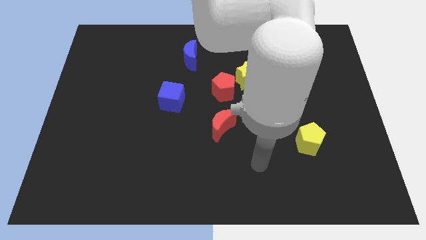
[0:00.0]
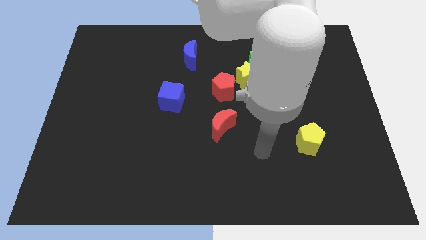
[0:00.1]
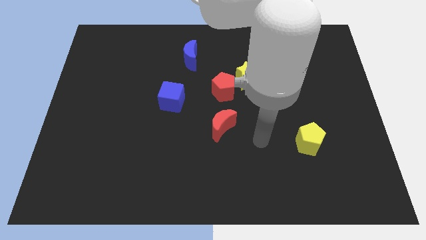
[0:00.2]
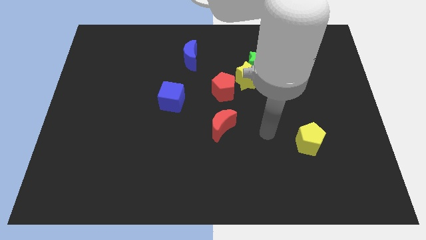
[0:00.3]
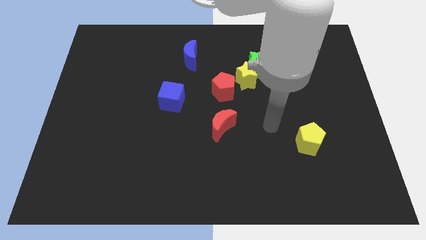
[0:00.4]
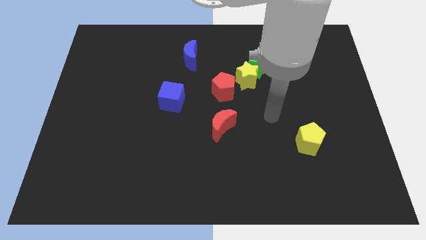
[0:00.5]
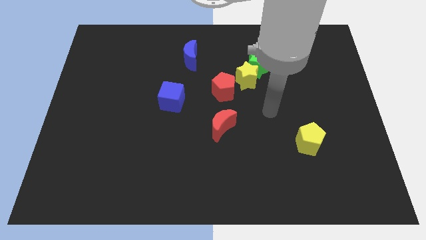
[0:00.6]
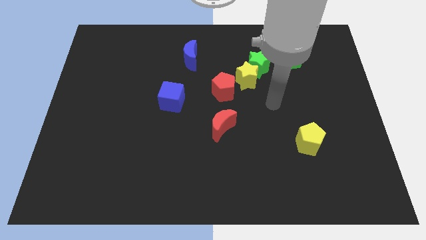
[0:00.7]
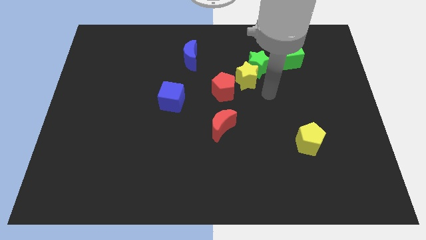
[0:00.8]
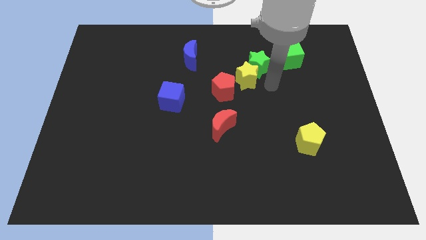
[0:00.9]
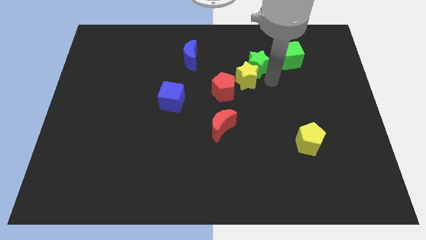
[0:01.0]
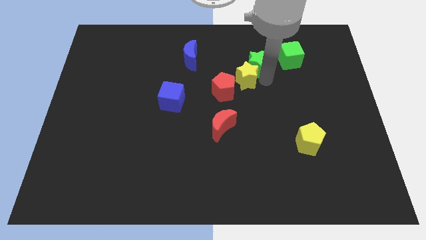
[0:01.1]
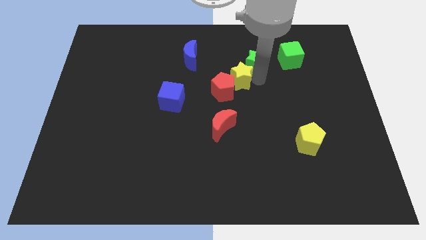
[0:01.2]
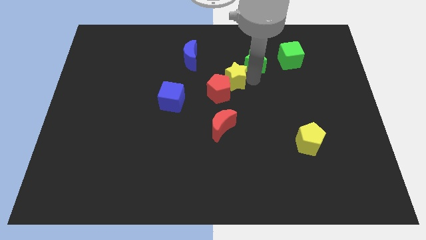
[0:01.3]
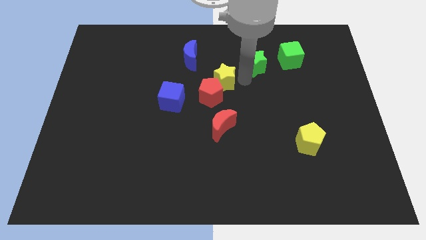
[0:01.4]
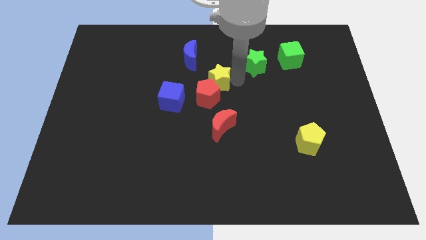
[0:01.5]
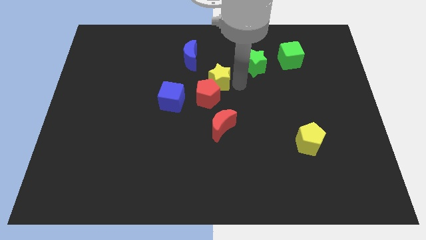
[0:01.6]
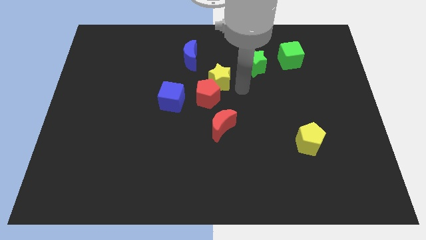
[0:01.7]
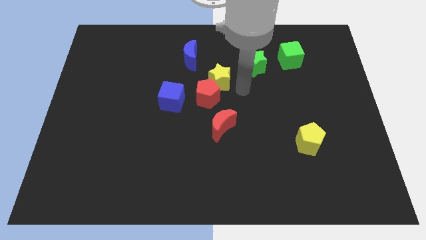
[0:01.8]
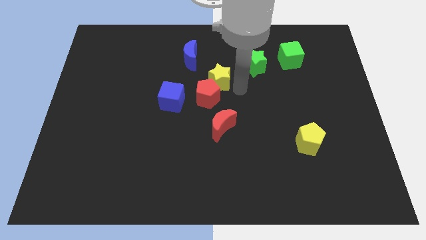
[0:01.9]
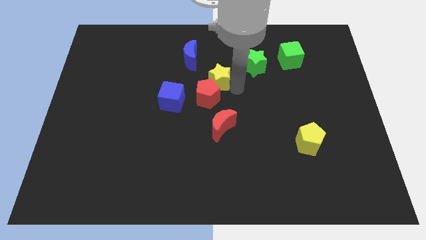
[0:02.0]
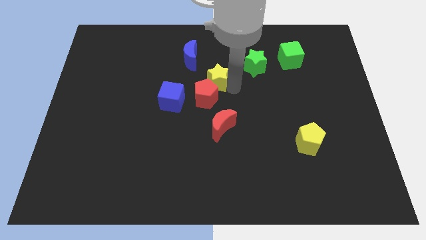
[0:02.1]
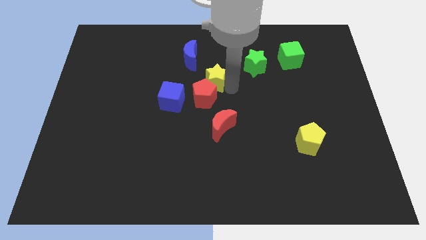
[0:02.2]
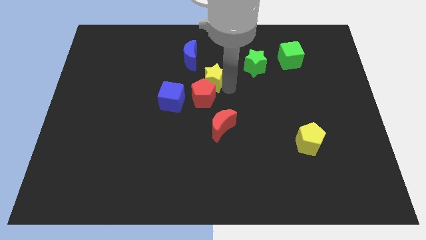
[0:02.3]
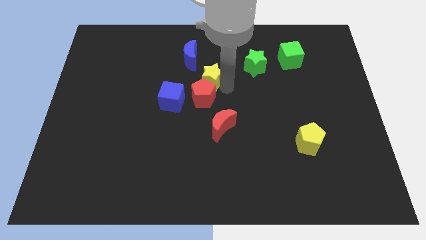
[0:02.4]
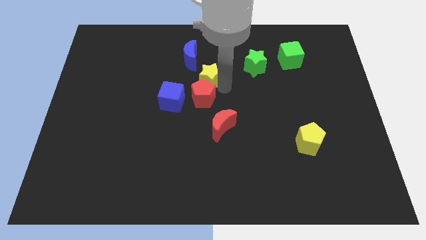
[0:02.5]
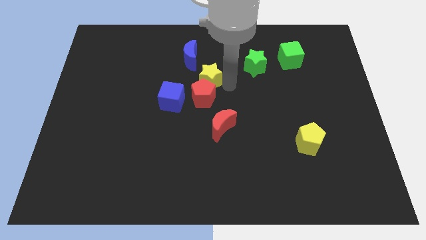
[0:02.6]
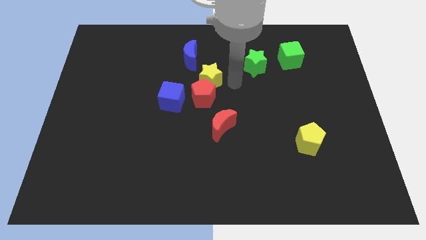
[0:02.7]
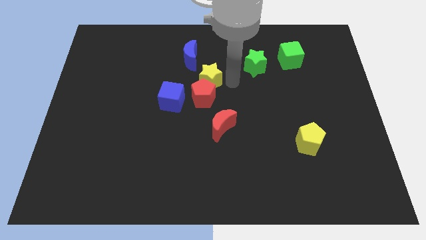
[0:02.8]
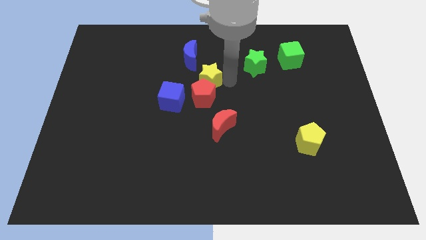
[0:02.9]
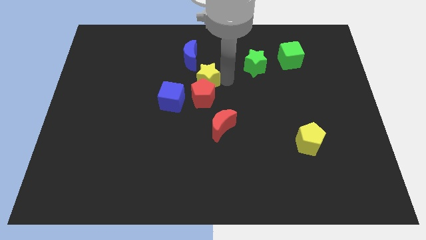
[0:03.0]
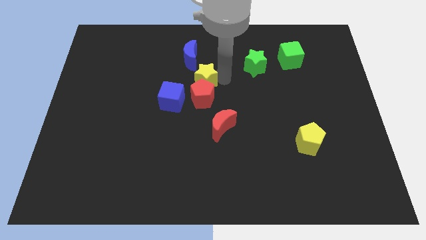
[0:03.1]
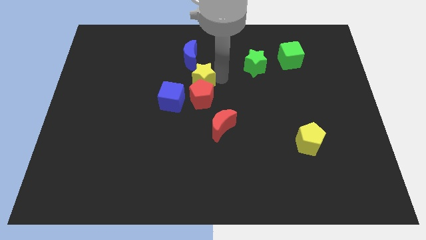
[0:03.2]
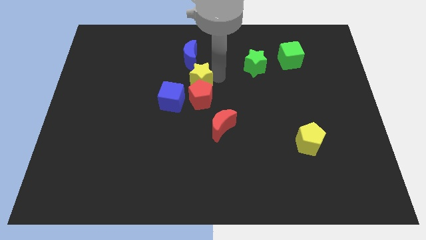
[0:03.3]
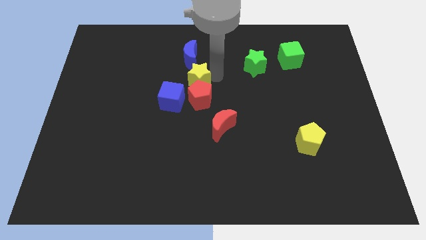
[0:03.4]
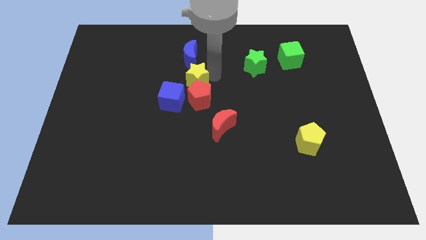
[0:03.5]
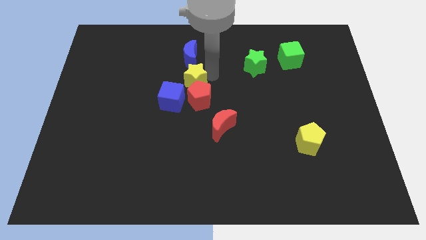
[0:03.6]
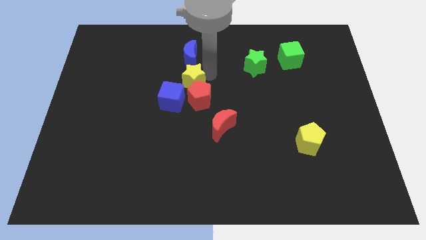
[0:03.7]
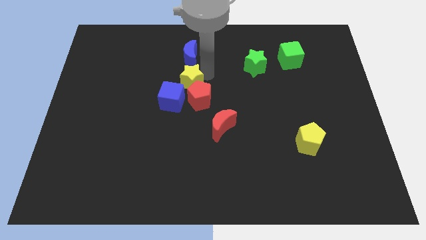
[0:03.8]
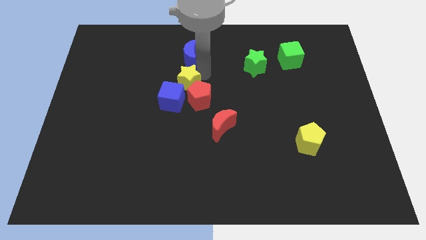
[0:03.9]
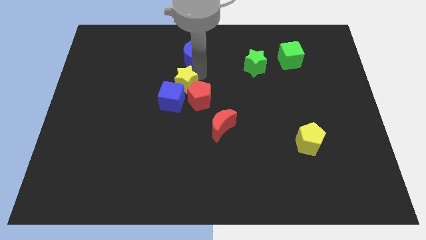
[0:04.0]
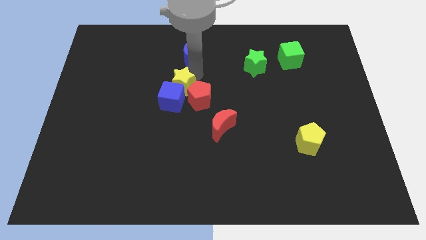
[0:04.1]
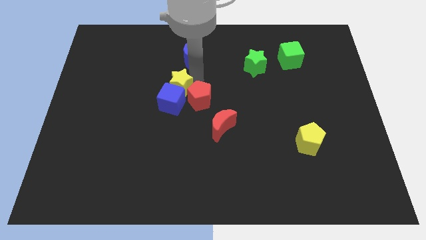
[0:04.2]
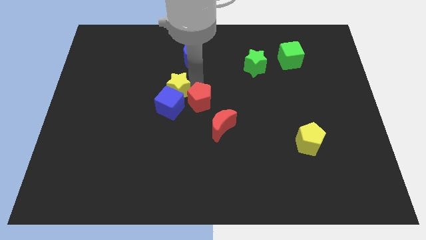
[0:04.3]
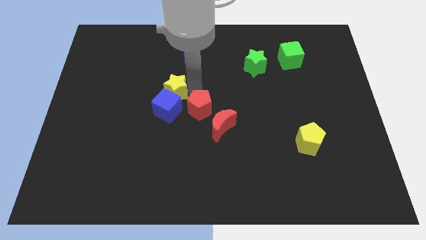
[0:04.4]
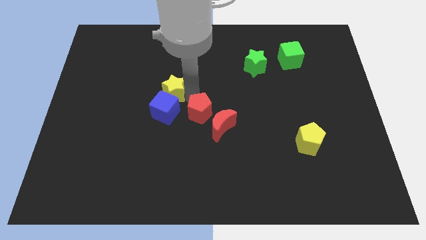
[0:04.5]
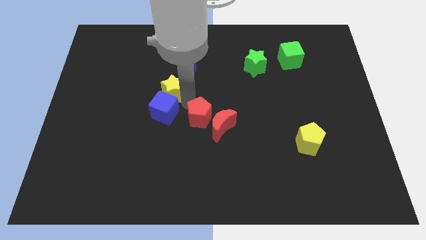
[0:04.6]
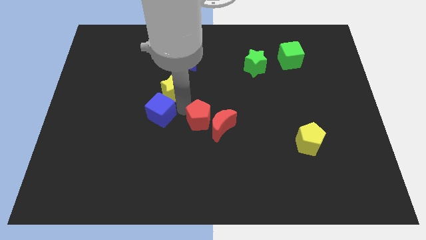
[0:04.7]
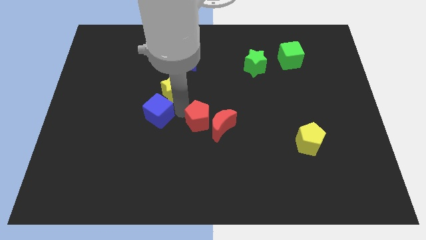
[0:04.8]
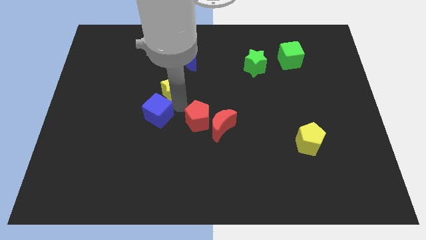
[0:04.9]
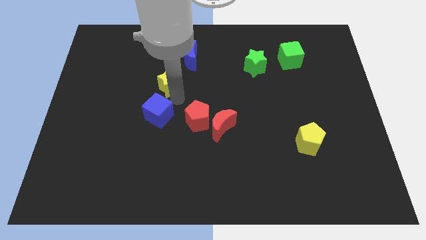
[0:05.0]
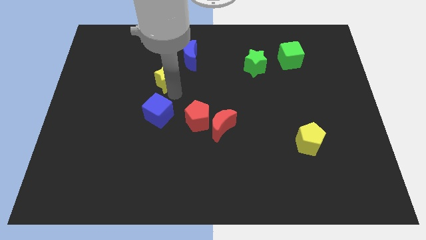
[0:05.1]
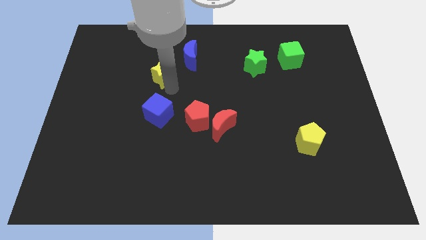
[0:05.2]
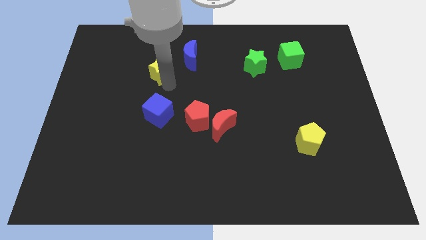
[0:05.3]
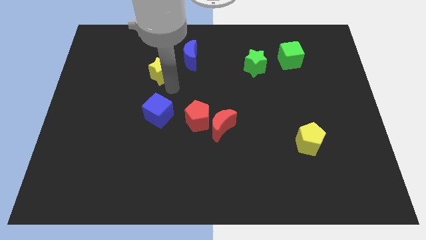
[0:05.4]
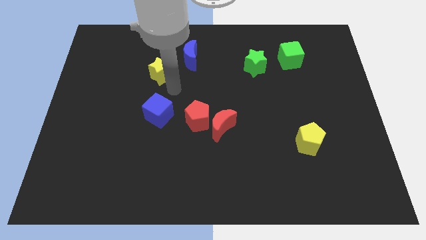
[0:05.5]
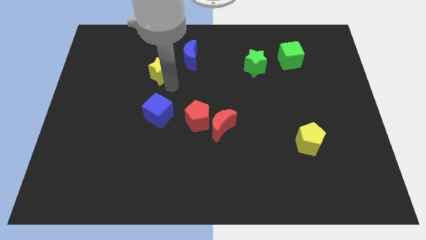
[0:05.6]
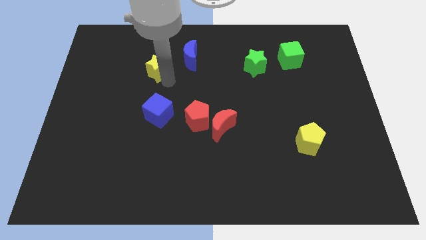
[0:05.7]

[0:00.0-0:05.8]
move the yellow star to the left side of the blue moon
